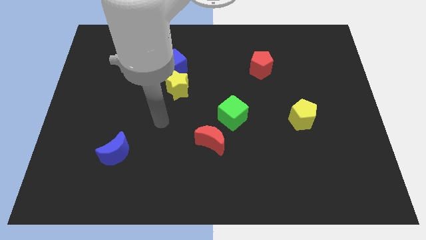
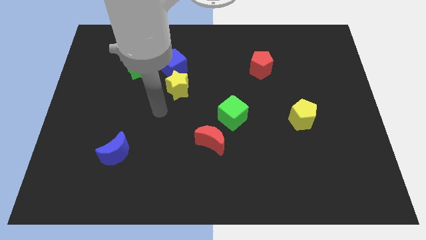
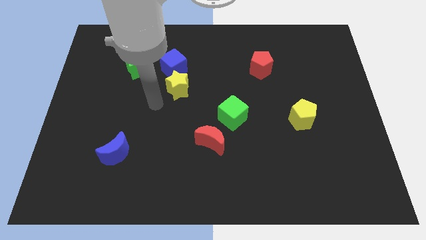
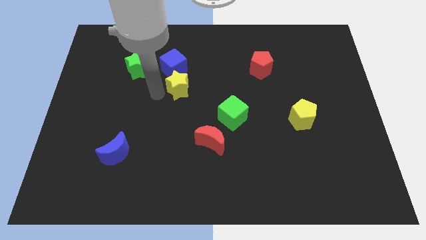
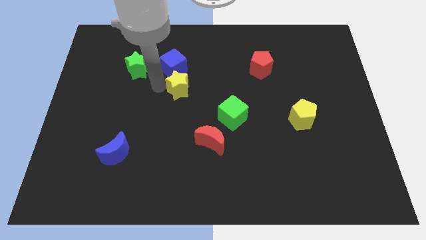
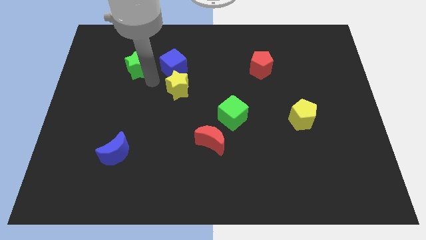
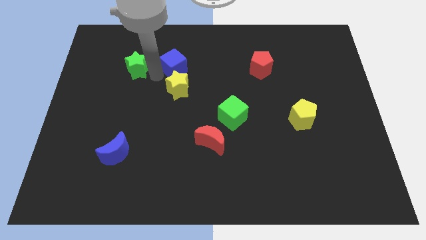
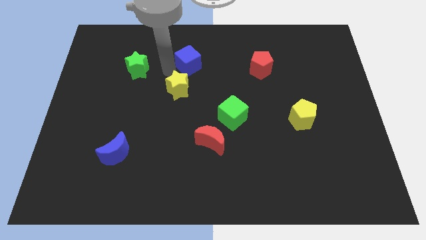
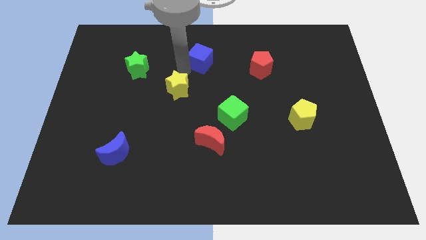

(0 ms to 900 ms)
pull the yellow star apart from the blue cube

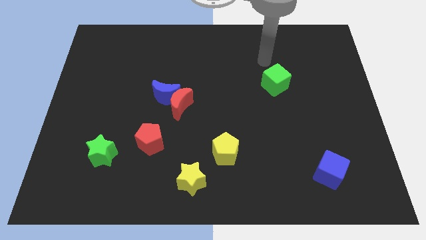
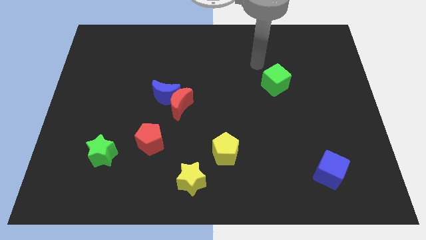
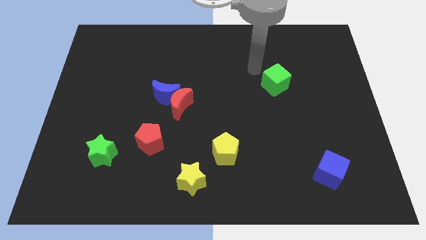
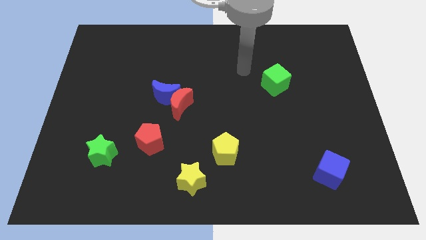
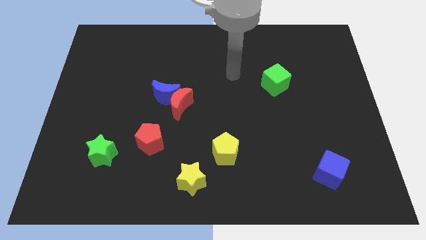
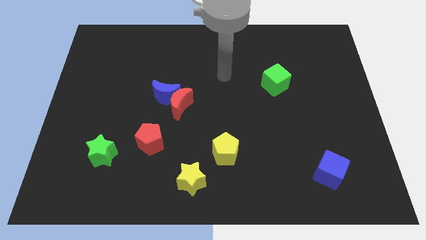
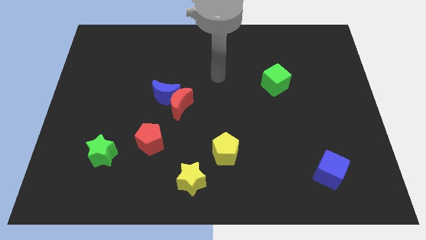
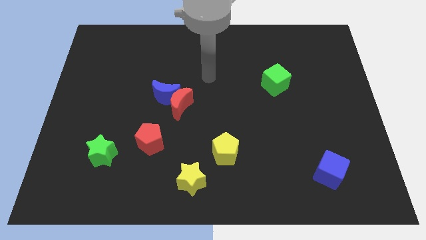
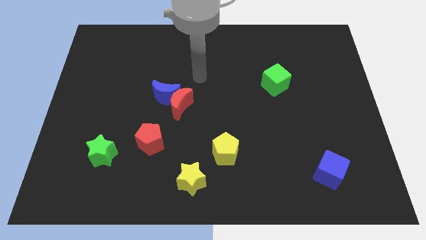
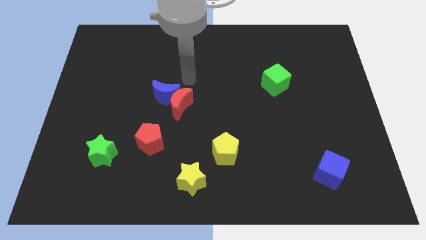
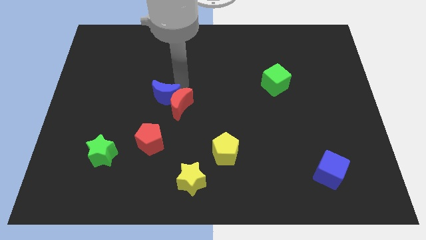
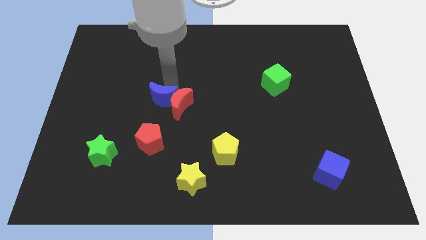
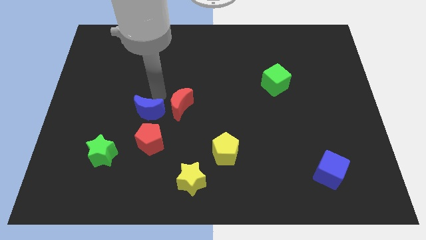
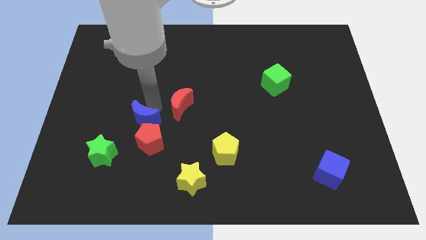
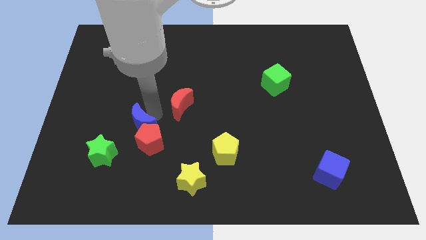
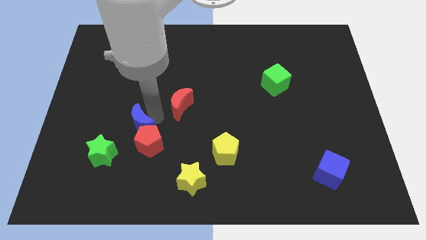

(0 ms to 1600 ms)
move the red moon away from the blue moon

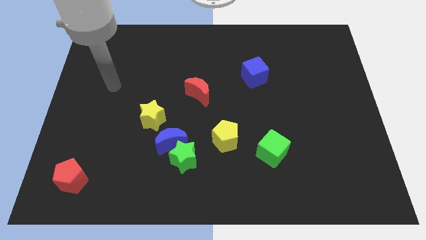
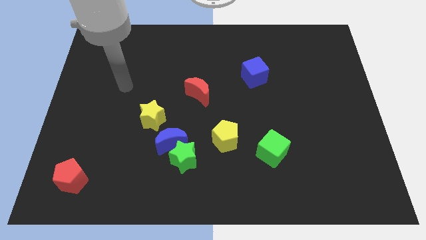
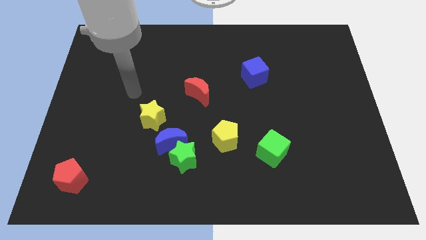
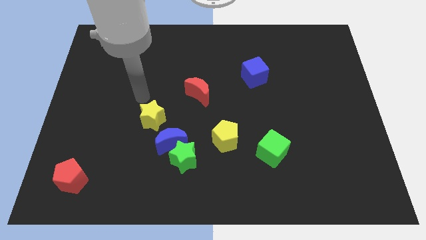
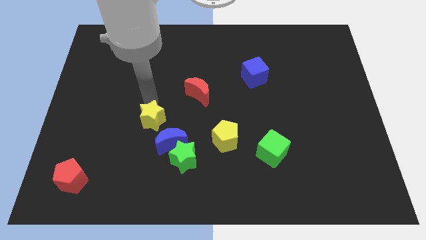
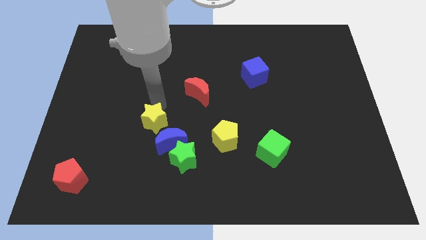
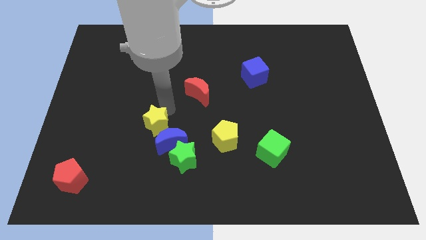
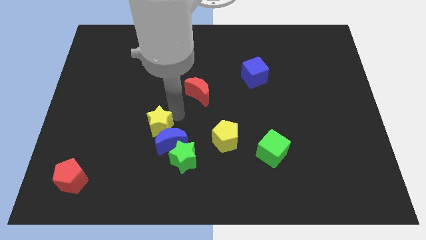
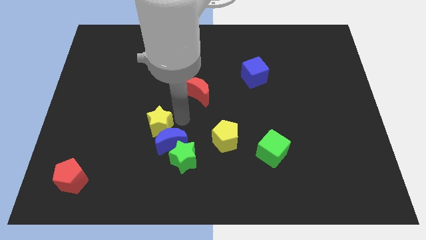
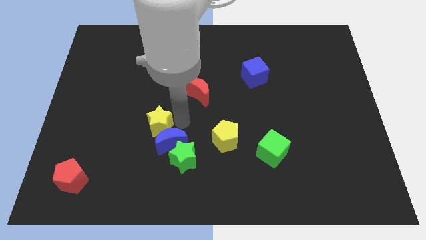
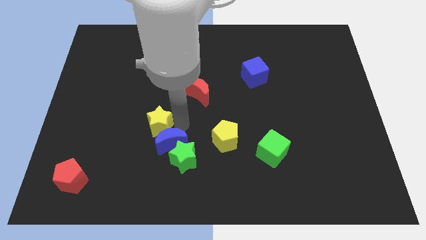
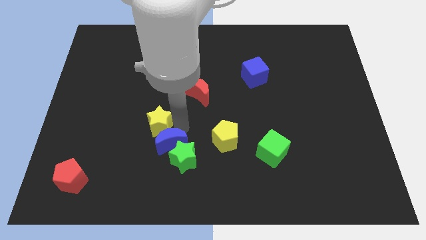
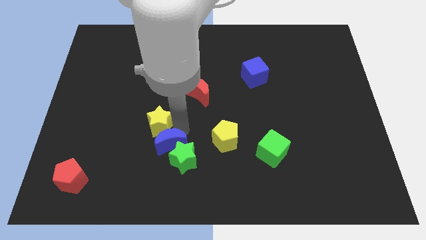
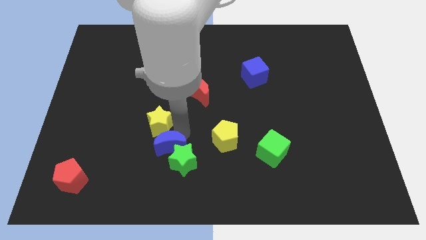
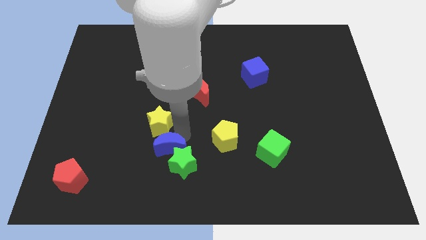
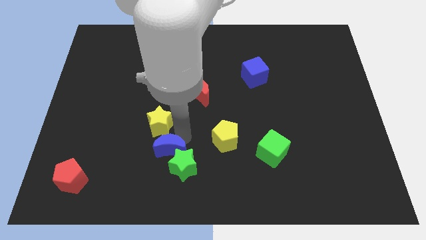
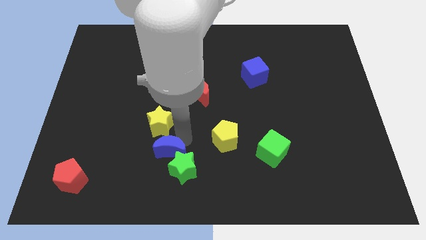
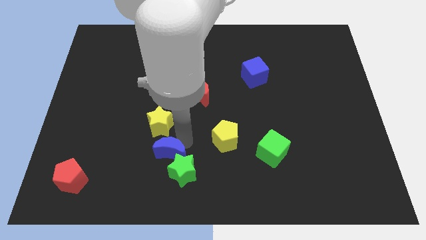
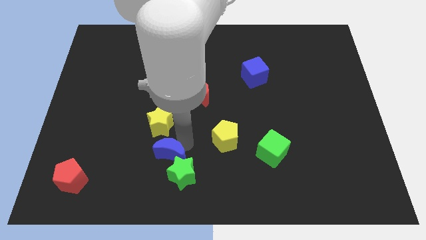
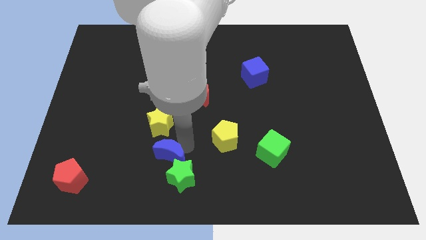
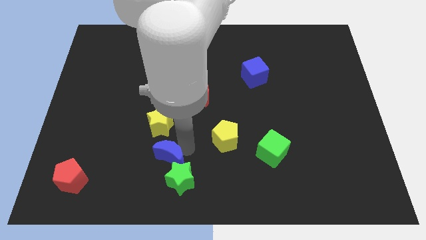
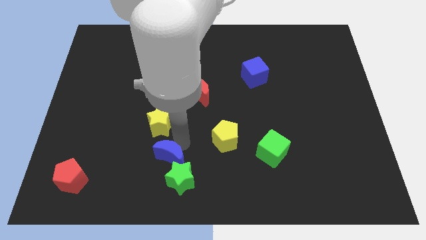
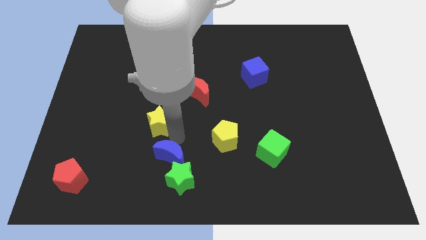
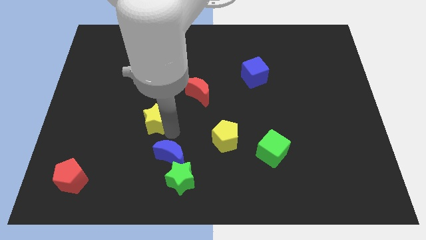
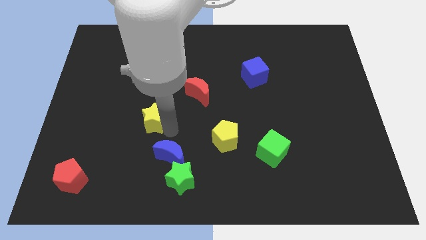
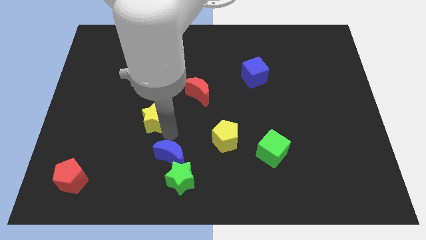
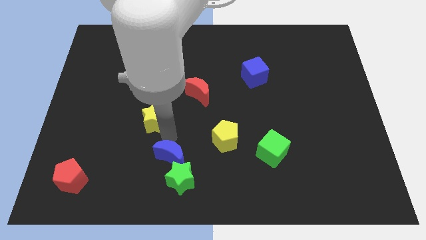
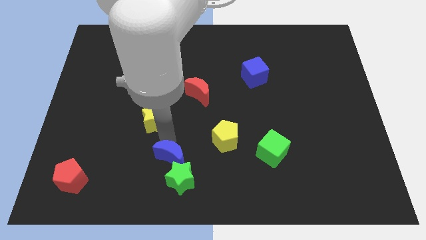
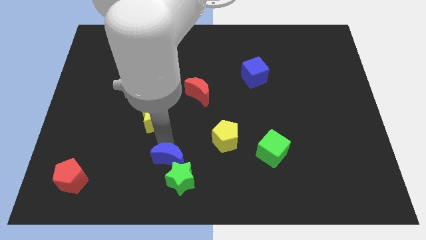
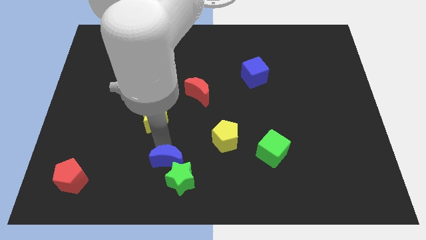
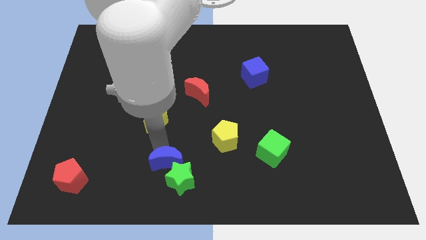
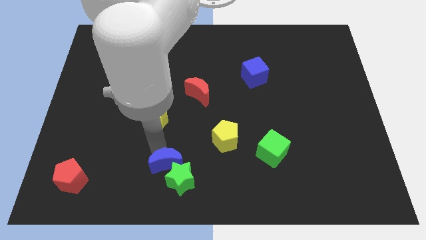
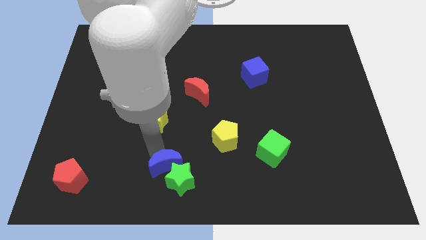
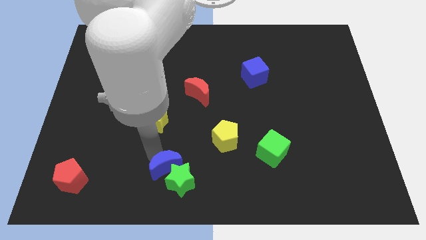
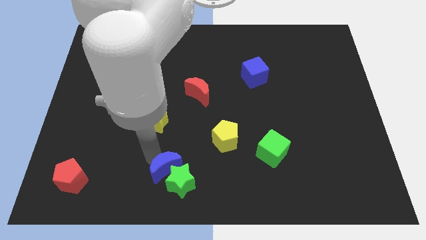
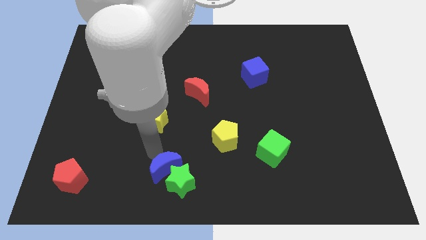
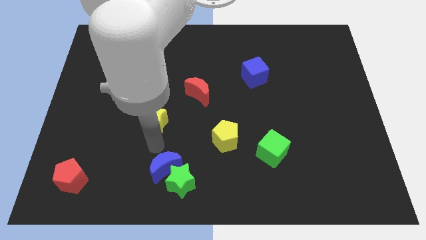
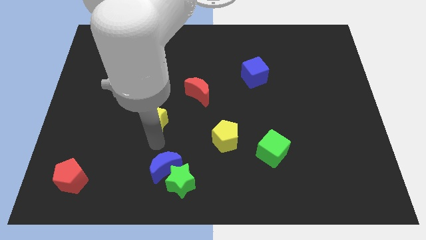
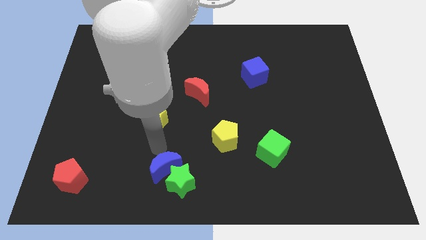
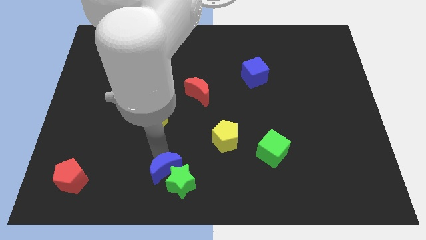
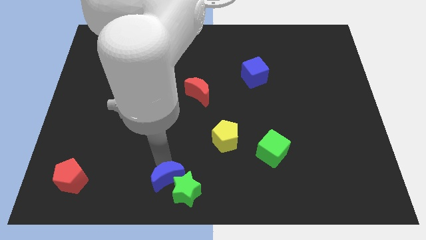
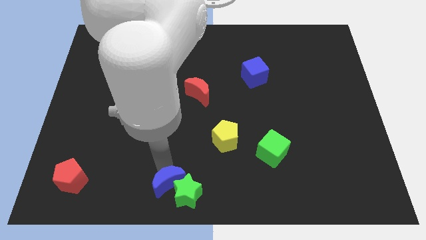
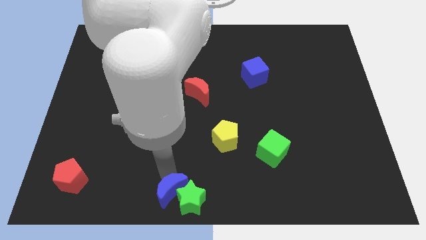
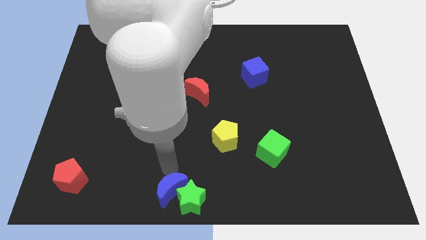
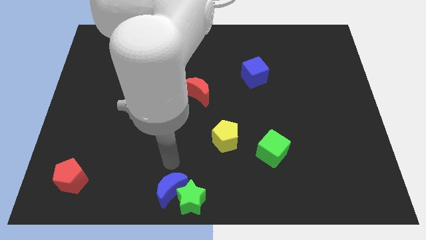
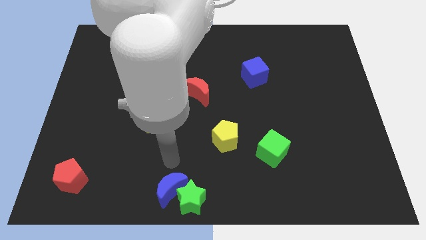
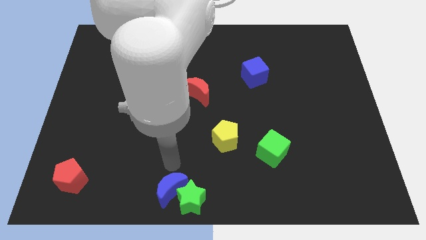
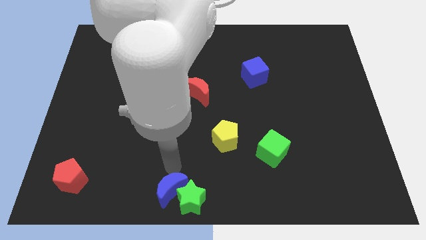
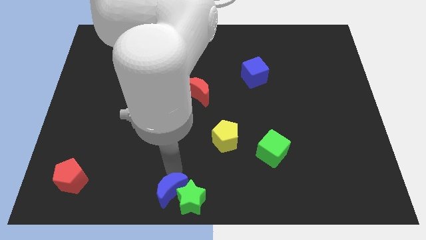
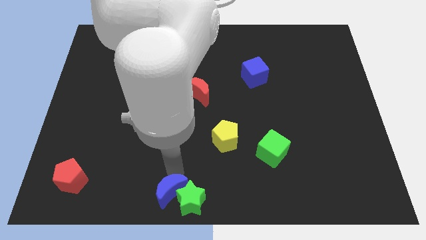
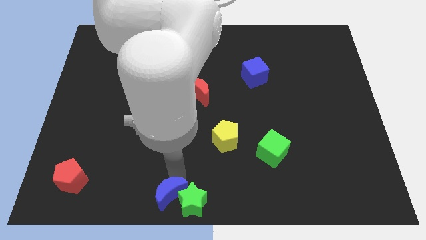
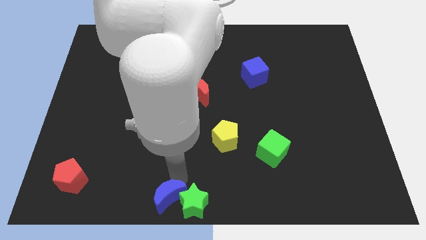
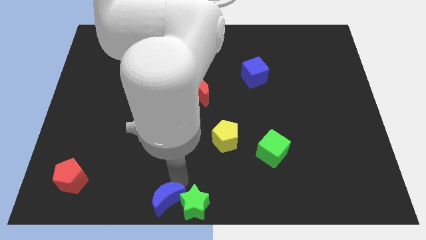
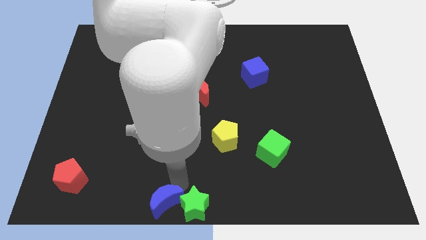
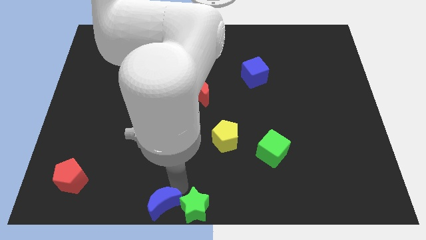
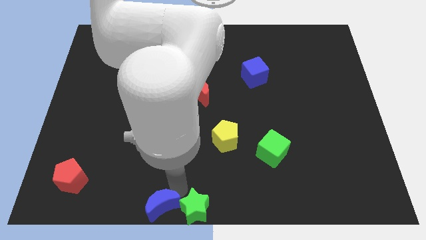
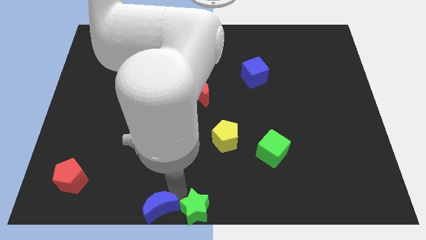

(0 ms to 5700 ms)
move the blue moon away from the green star and yellow star

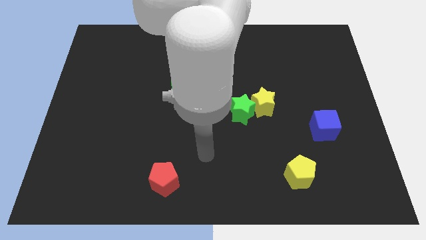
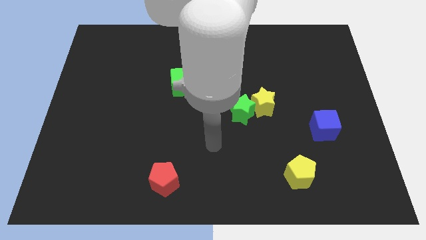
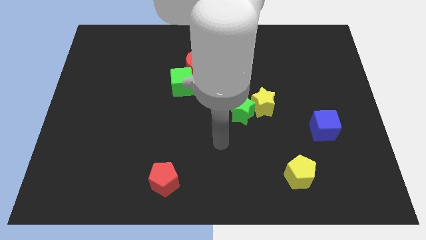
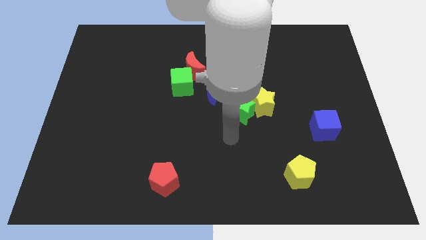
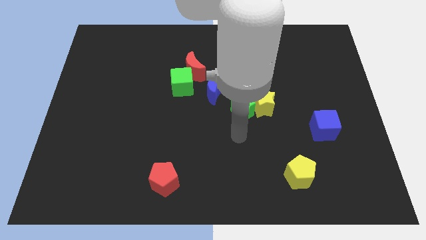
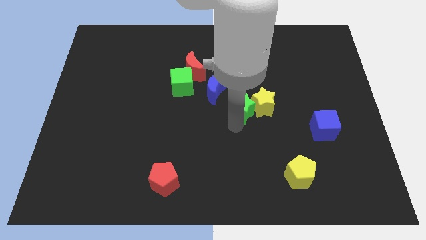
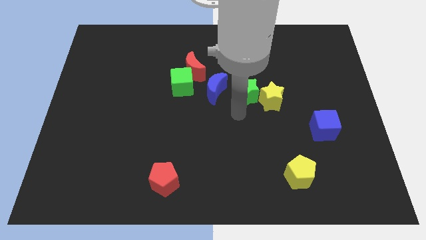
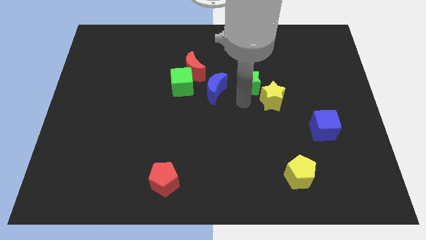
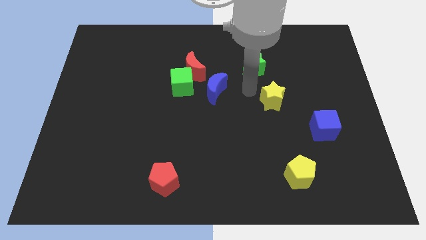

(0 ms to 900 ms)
separate the yellow star from the green star

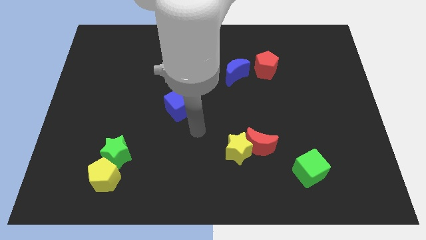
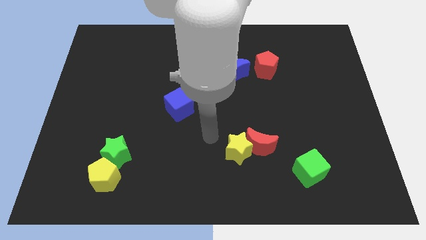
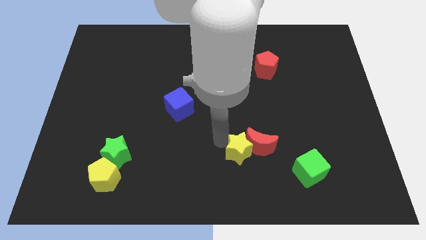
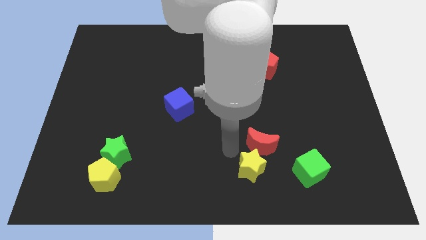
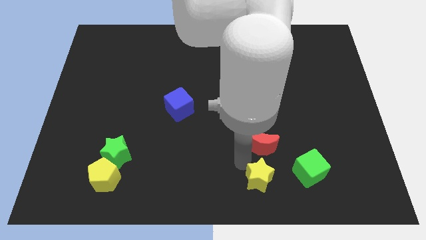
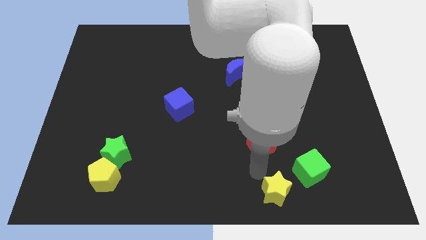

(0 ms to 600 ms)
separate the red moon from the yellow star
